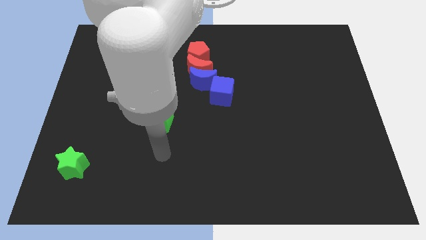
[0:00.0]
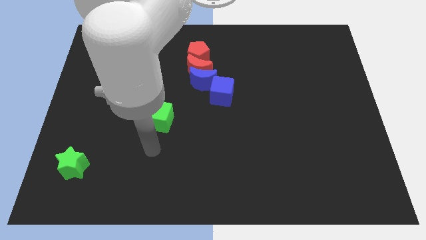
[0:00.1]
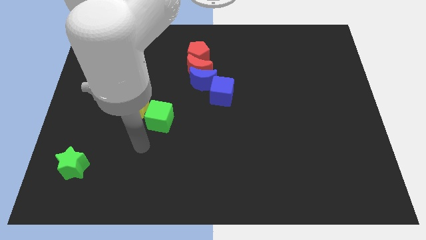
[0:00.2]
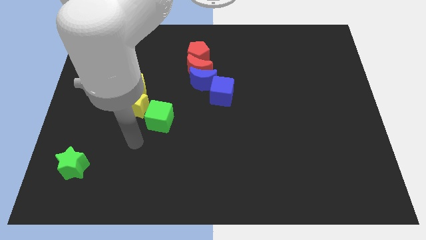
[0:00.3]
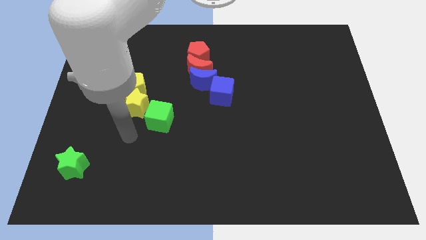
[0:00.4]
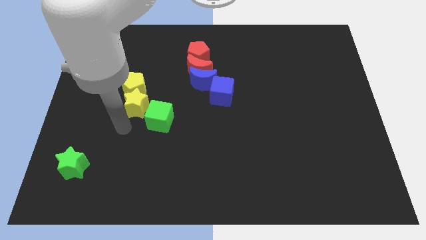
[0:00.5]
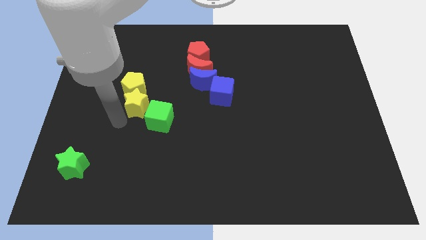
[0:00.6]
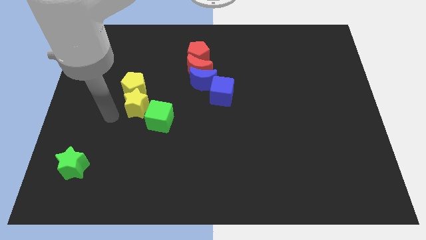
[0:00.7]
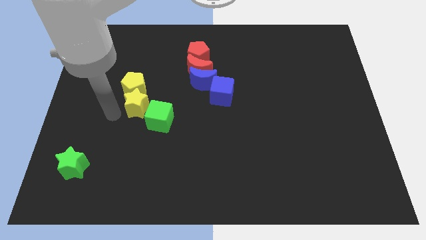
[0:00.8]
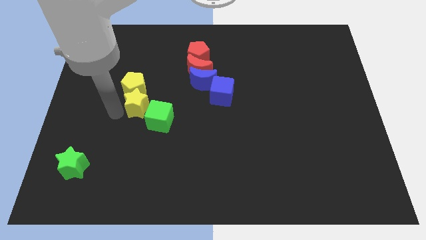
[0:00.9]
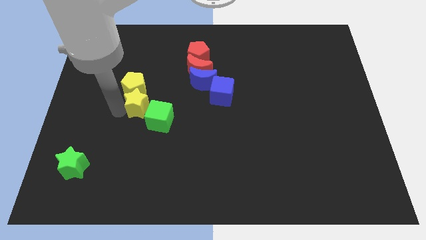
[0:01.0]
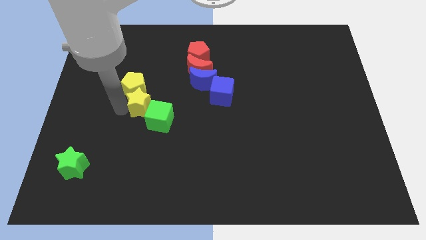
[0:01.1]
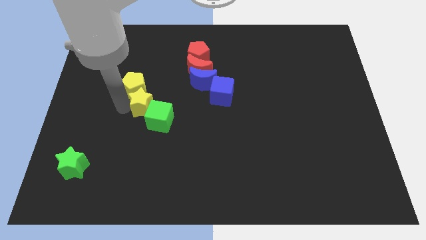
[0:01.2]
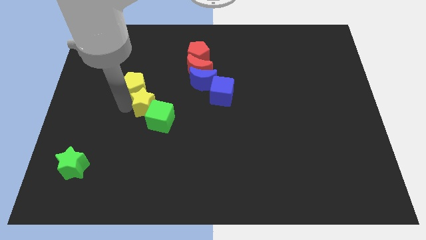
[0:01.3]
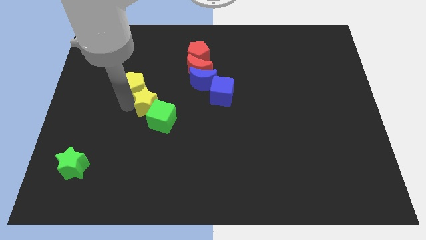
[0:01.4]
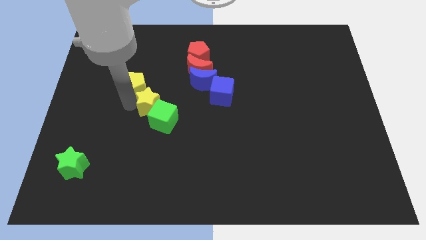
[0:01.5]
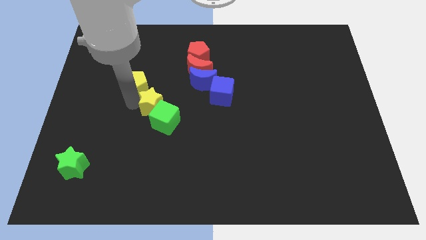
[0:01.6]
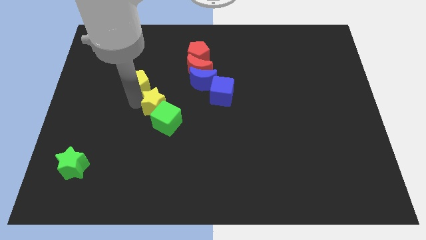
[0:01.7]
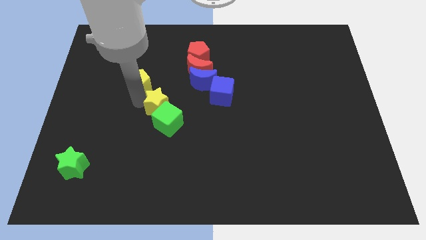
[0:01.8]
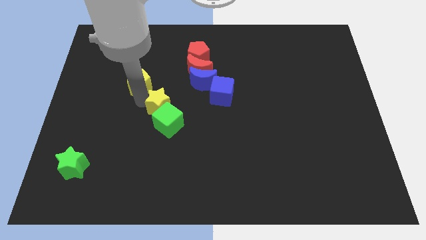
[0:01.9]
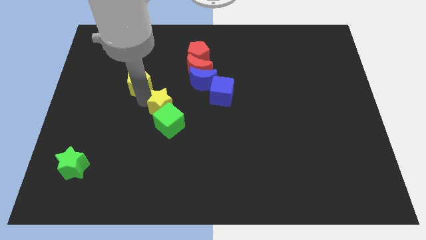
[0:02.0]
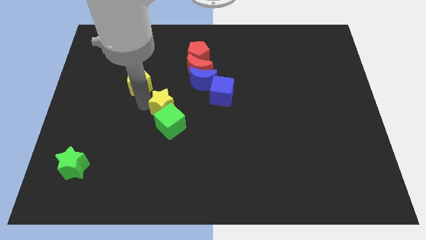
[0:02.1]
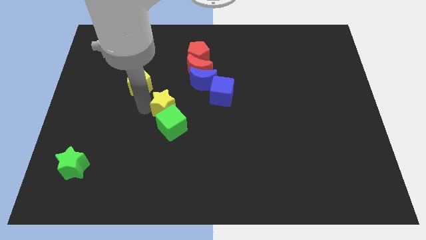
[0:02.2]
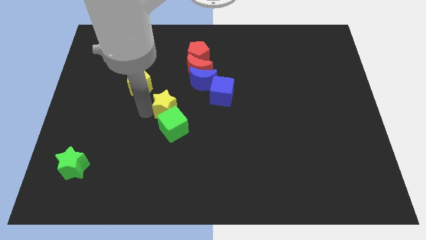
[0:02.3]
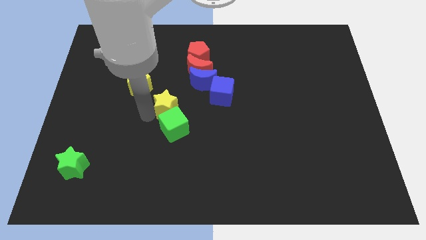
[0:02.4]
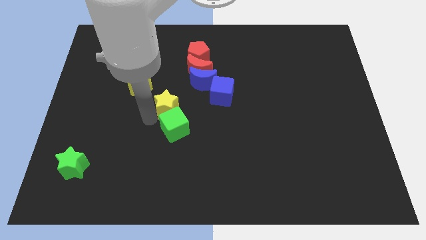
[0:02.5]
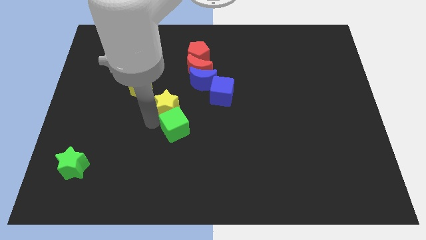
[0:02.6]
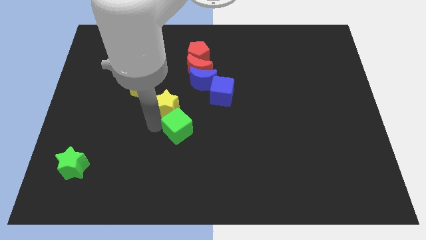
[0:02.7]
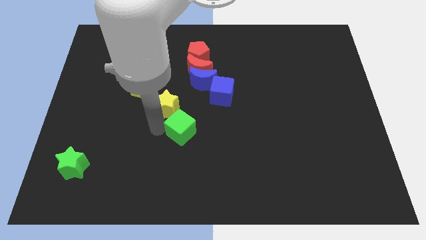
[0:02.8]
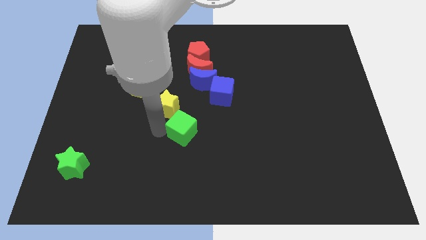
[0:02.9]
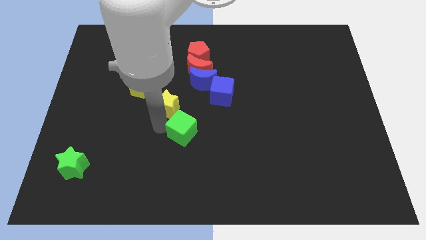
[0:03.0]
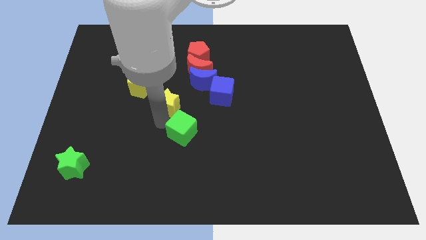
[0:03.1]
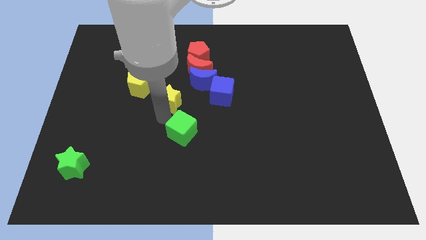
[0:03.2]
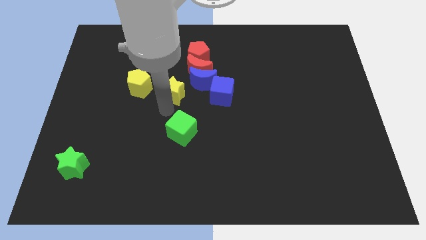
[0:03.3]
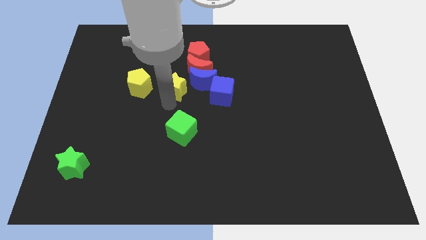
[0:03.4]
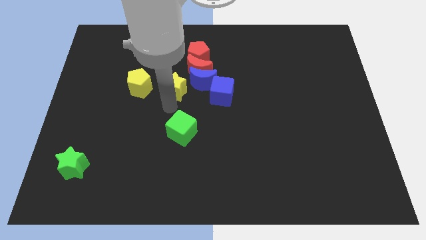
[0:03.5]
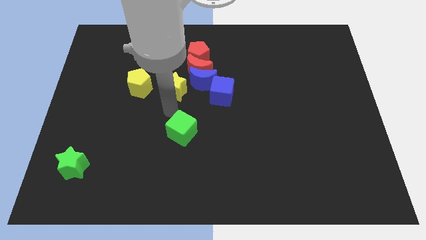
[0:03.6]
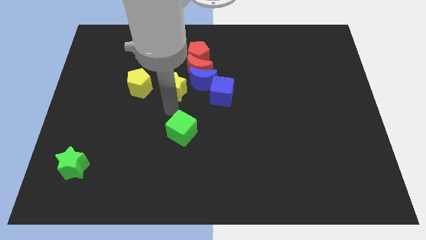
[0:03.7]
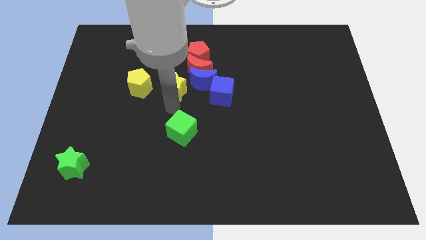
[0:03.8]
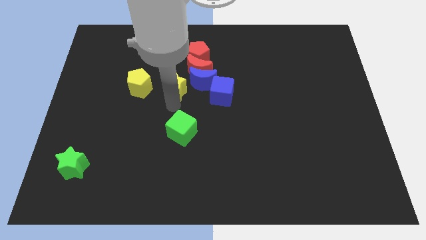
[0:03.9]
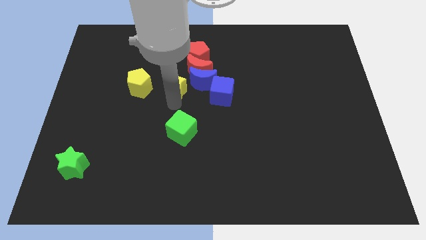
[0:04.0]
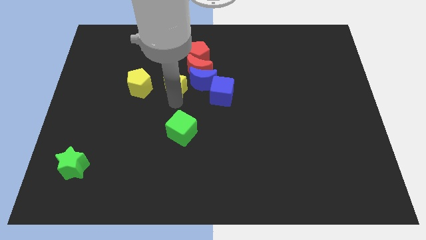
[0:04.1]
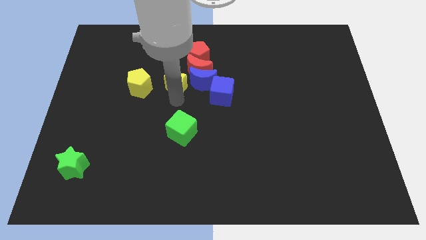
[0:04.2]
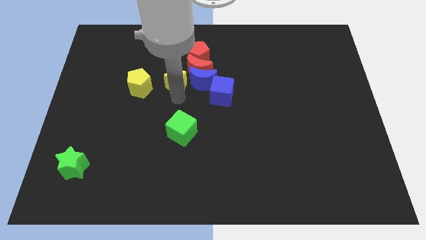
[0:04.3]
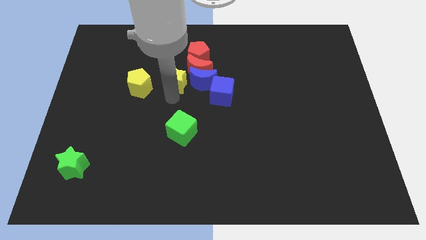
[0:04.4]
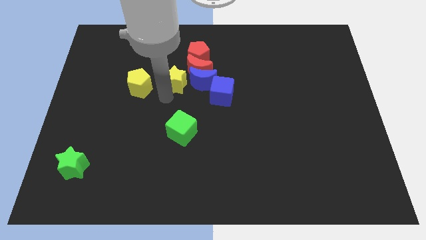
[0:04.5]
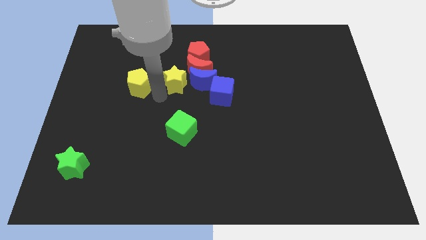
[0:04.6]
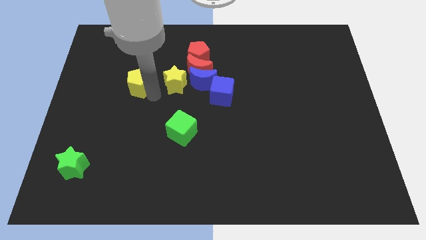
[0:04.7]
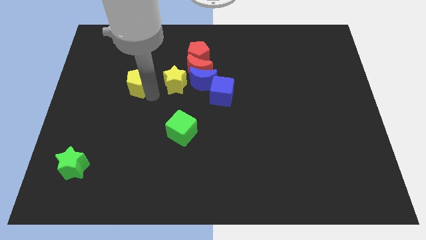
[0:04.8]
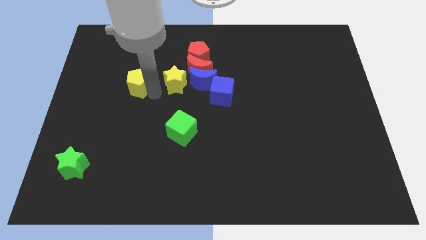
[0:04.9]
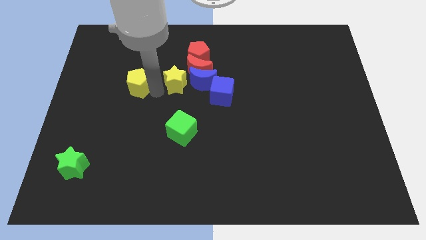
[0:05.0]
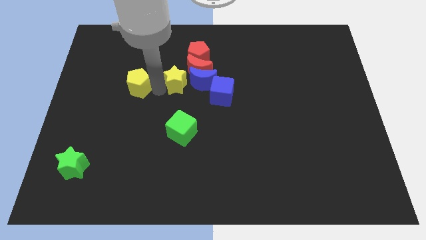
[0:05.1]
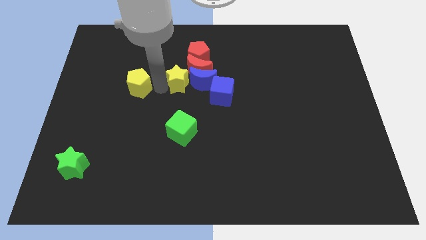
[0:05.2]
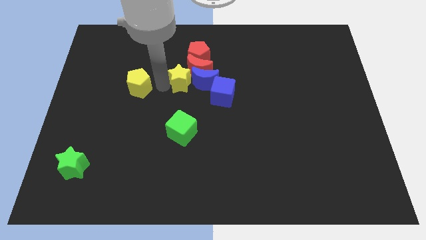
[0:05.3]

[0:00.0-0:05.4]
slide the yellow star next to the red moon

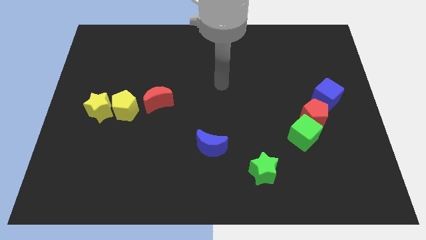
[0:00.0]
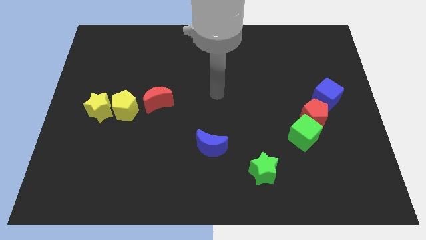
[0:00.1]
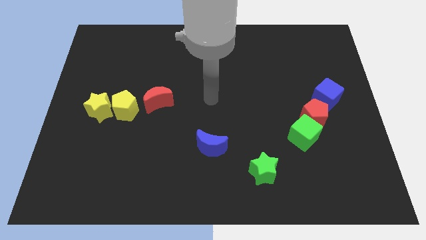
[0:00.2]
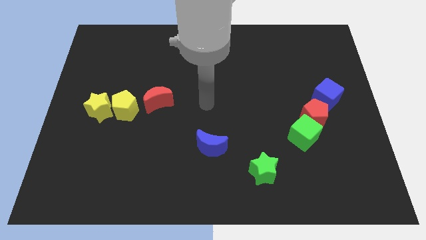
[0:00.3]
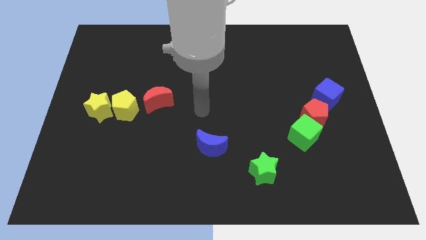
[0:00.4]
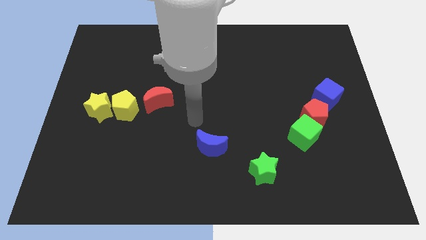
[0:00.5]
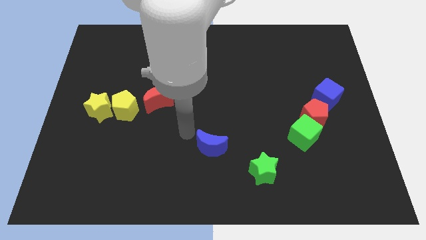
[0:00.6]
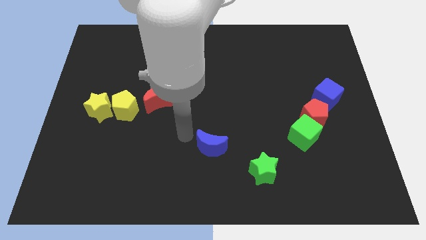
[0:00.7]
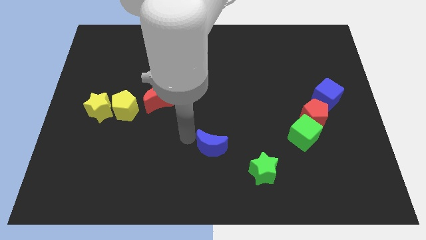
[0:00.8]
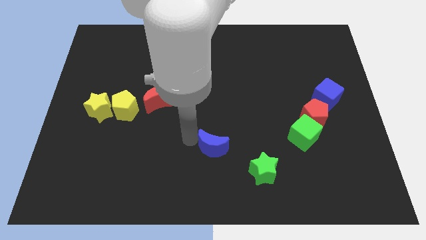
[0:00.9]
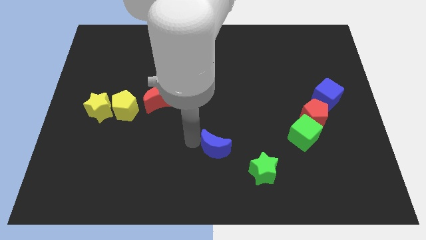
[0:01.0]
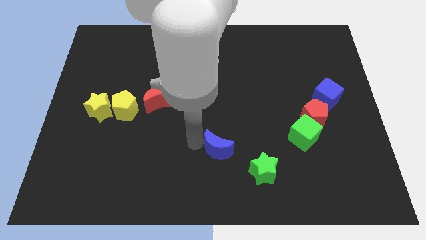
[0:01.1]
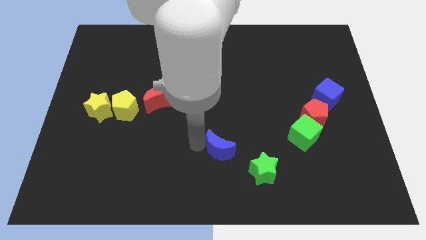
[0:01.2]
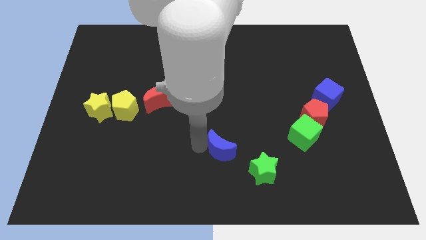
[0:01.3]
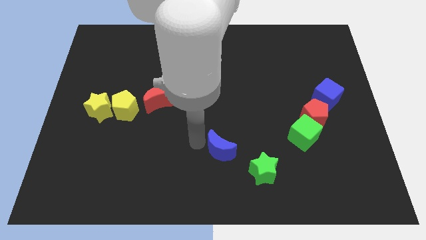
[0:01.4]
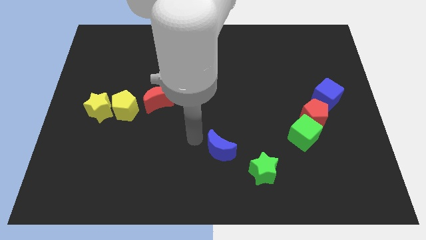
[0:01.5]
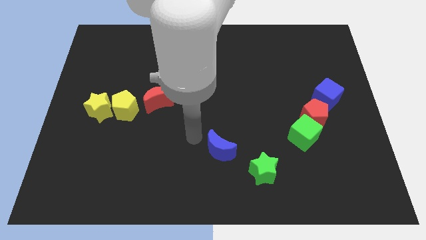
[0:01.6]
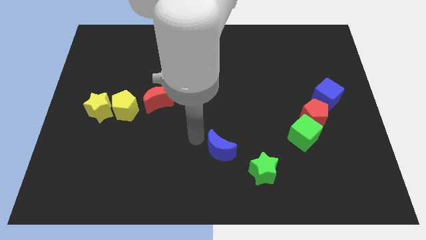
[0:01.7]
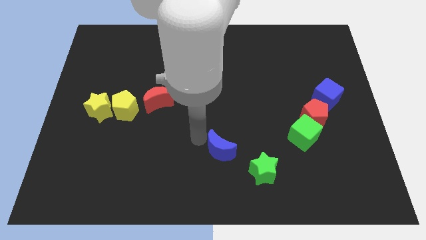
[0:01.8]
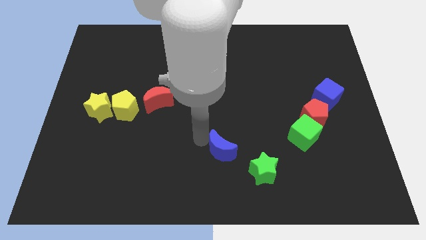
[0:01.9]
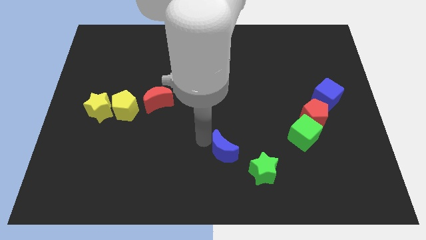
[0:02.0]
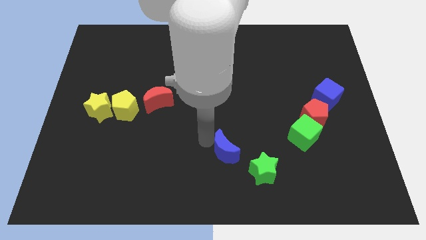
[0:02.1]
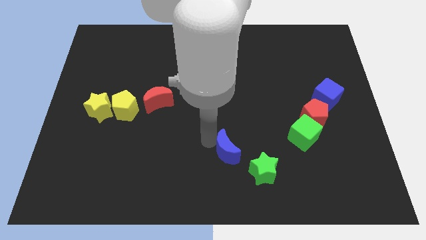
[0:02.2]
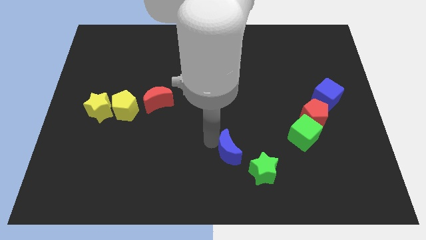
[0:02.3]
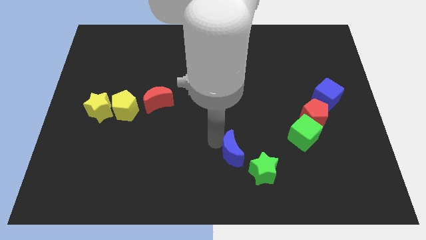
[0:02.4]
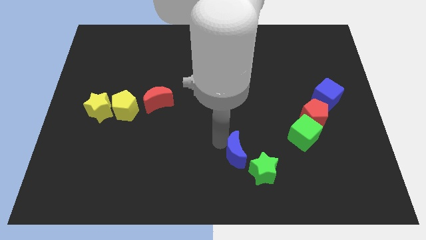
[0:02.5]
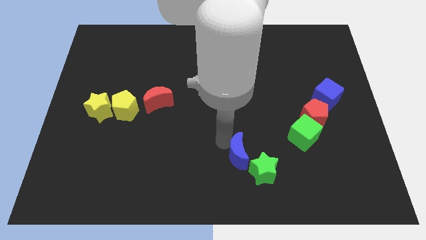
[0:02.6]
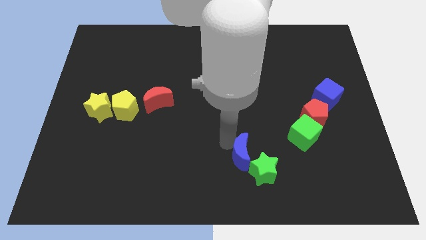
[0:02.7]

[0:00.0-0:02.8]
slide the blue moon to the green star
